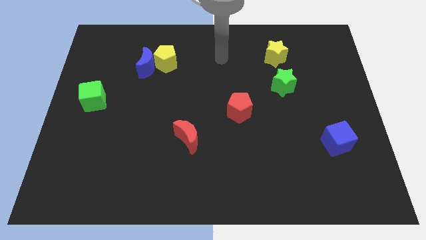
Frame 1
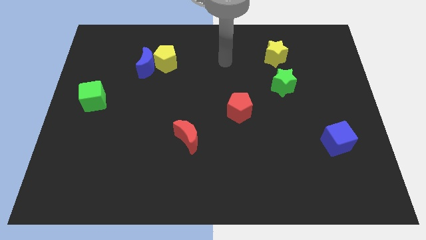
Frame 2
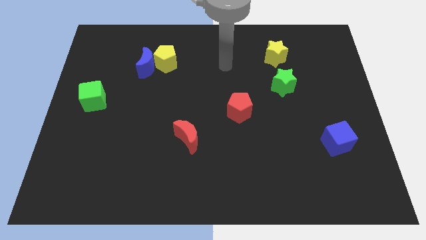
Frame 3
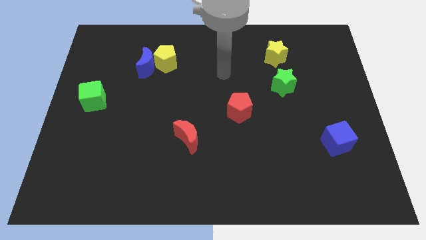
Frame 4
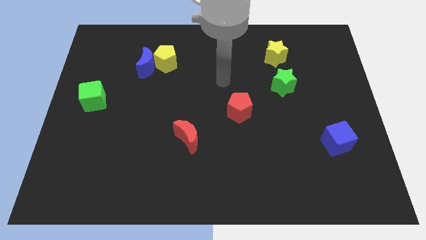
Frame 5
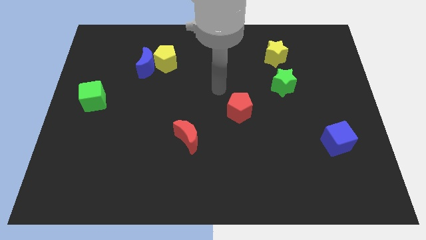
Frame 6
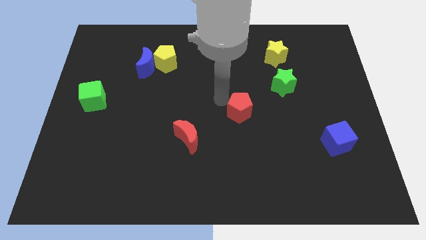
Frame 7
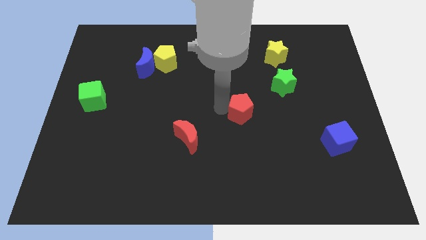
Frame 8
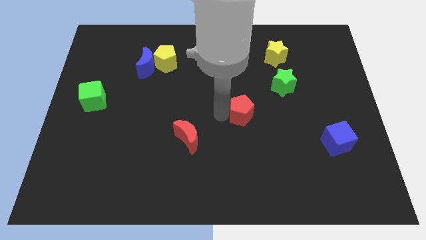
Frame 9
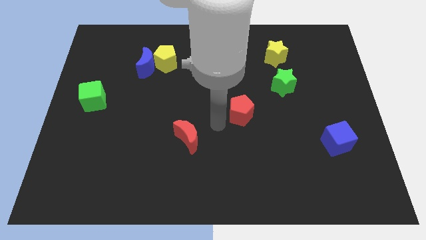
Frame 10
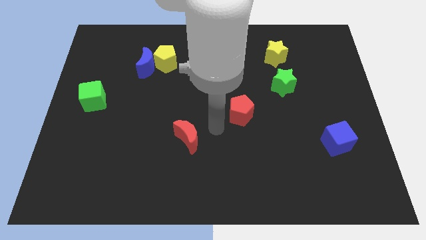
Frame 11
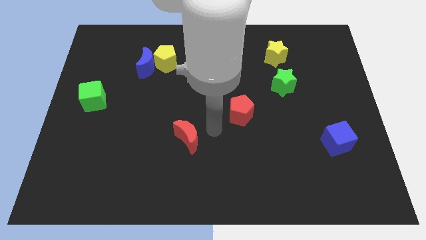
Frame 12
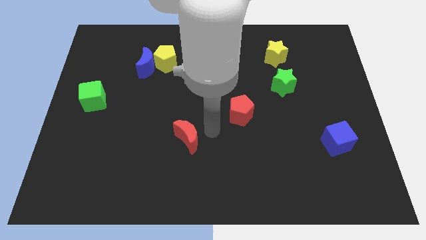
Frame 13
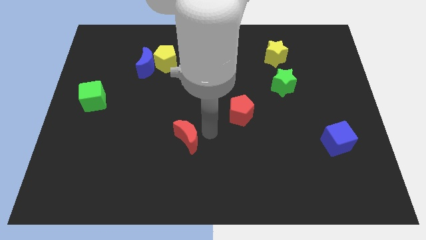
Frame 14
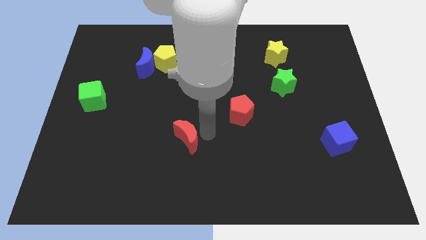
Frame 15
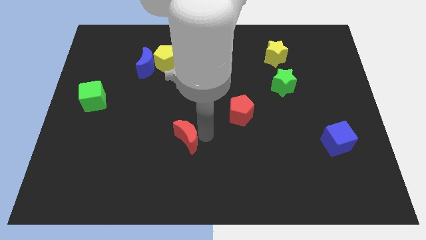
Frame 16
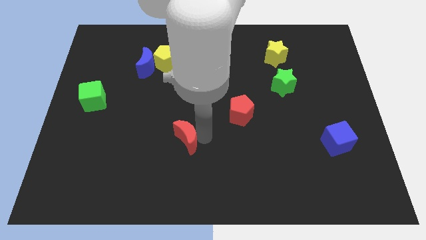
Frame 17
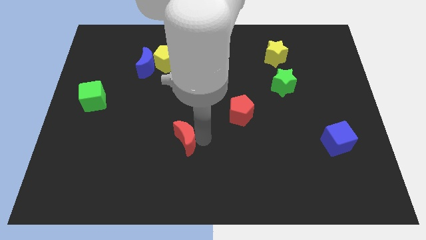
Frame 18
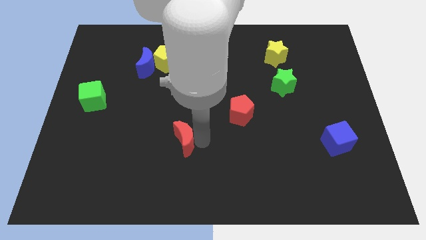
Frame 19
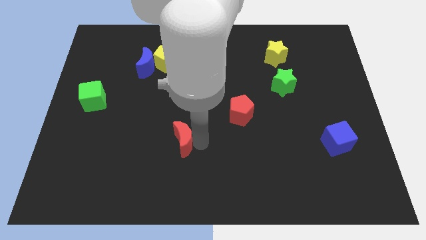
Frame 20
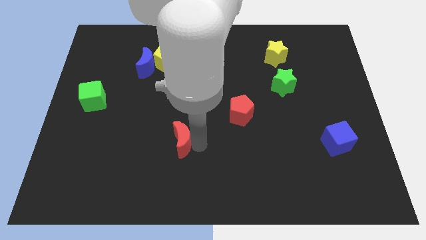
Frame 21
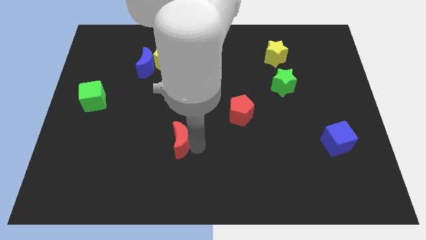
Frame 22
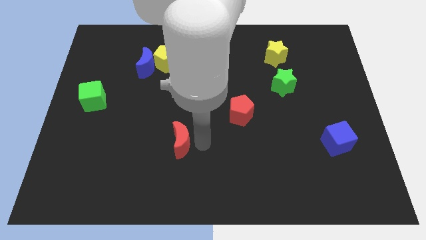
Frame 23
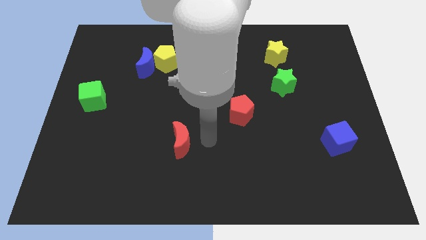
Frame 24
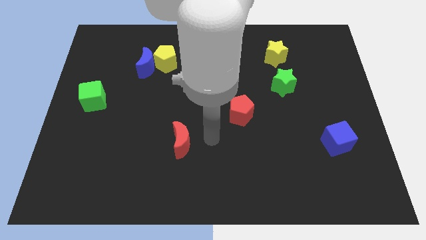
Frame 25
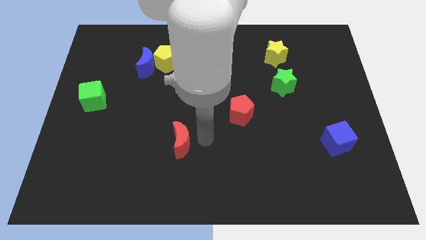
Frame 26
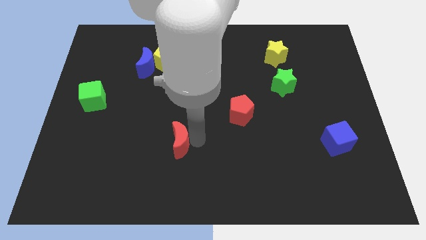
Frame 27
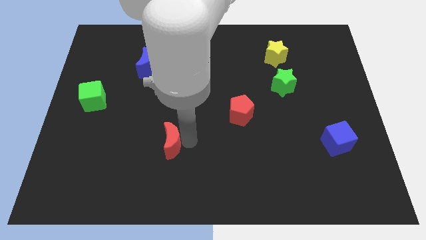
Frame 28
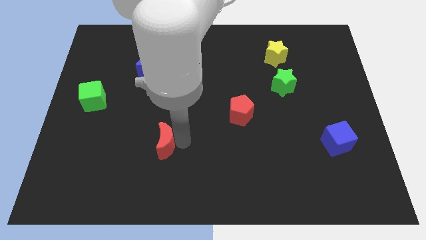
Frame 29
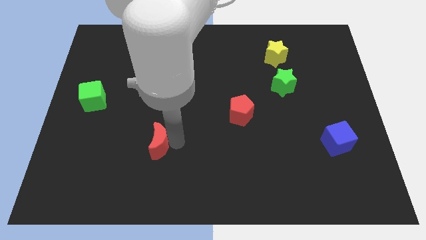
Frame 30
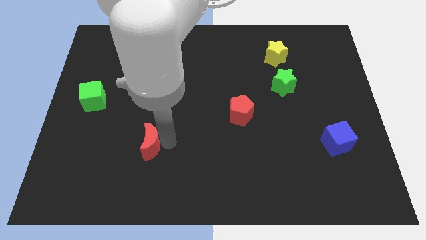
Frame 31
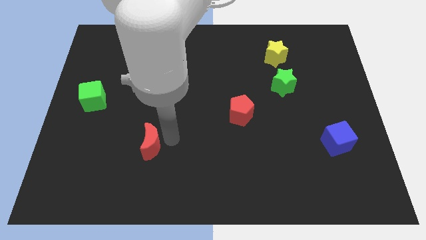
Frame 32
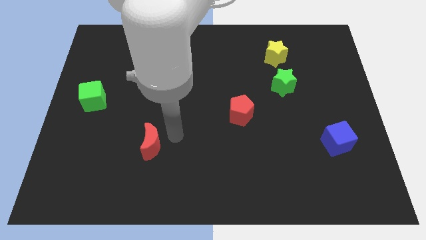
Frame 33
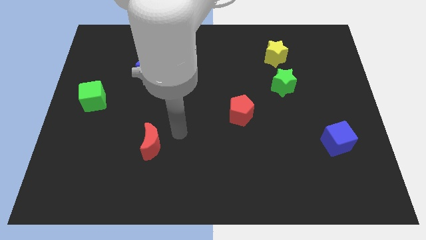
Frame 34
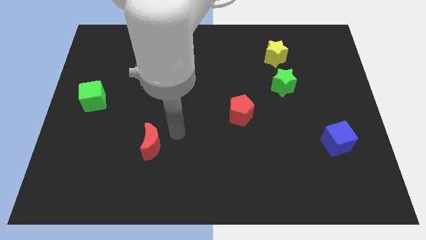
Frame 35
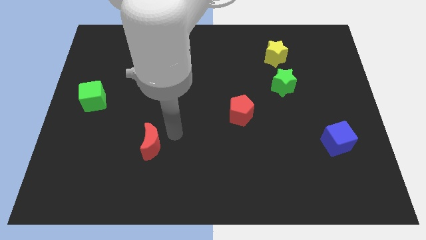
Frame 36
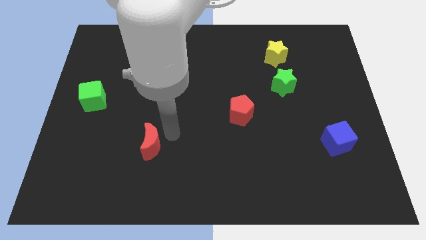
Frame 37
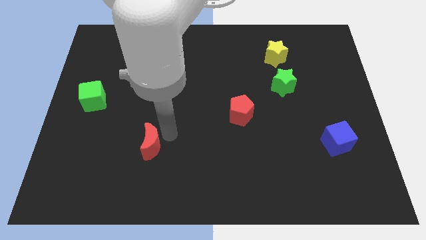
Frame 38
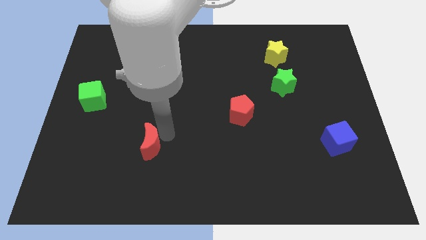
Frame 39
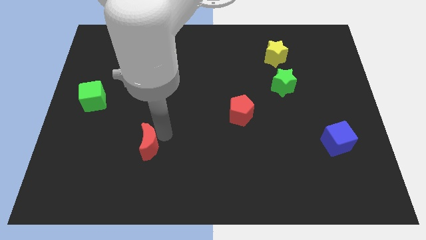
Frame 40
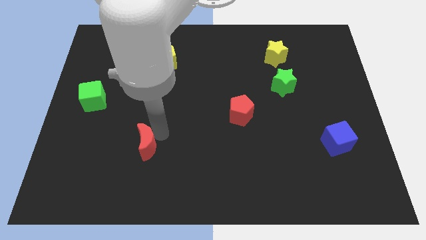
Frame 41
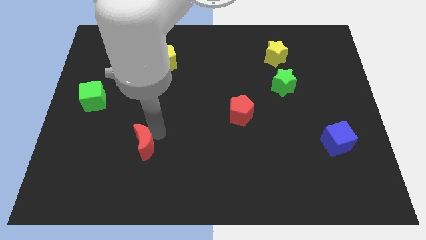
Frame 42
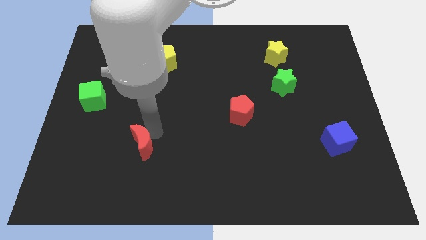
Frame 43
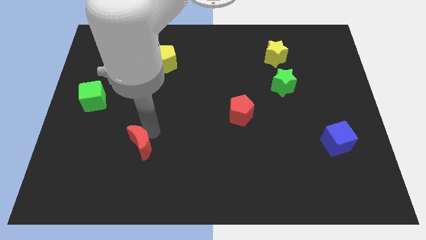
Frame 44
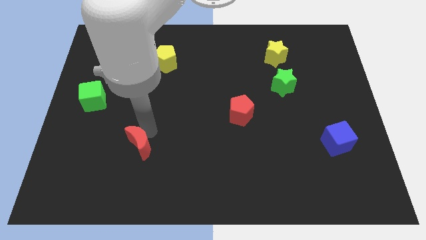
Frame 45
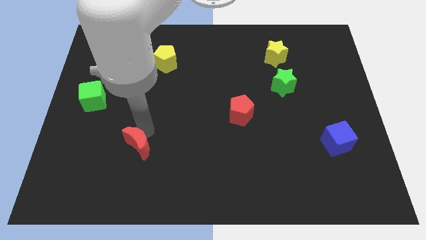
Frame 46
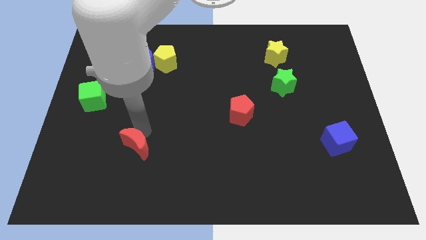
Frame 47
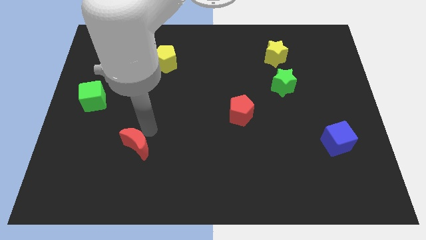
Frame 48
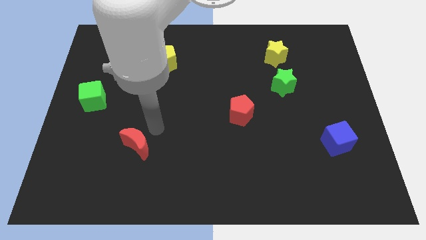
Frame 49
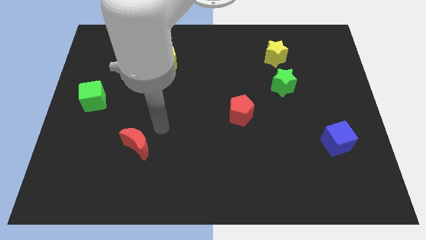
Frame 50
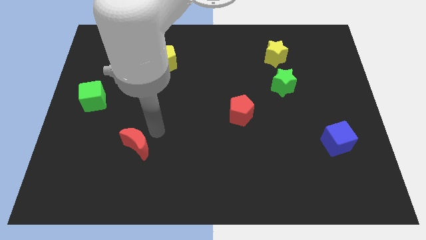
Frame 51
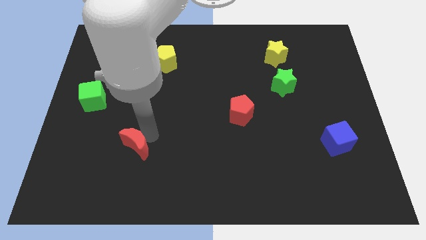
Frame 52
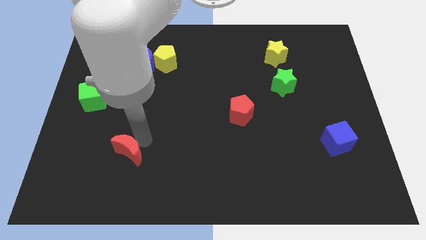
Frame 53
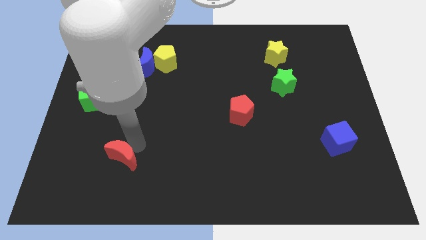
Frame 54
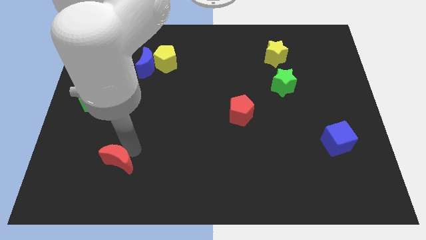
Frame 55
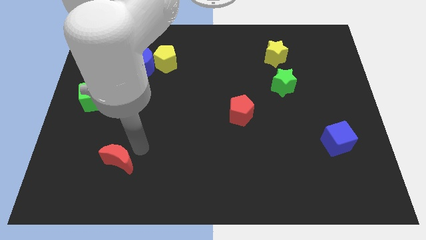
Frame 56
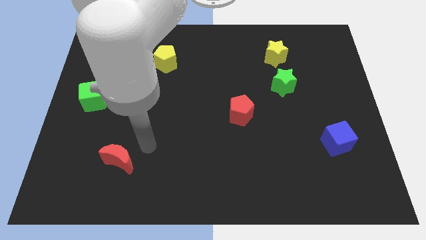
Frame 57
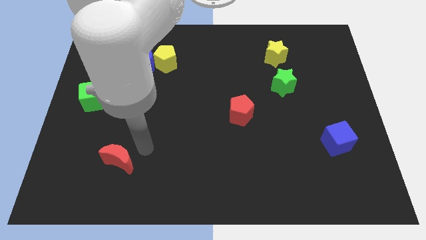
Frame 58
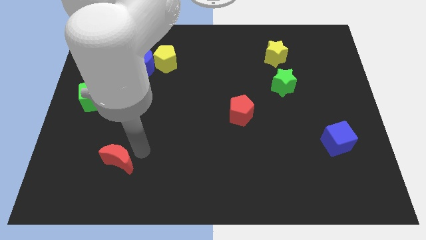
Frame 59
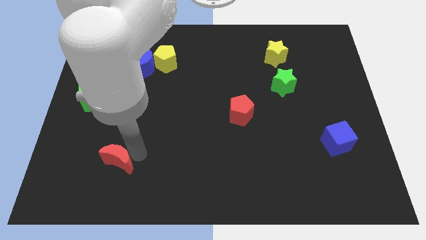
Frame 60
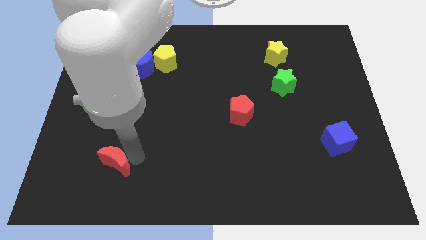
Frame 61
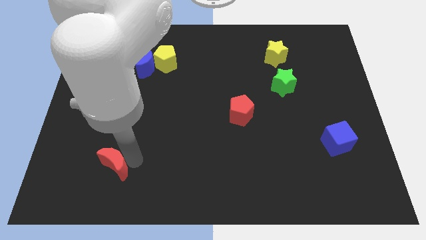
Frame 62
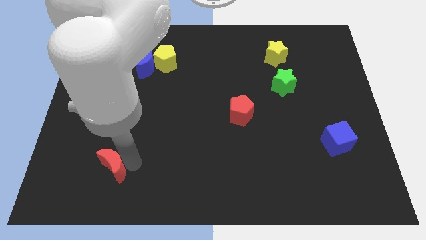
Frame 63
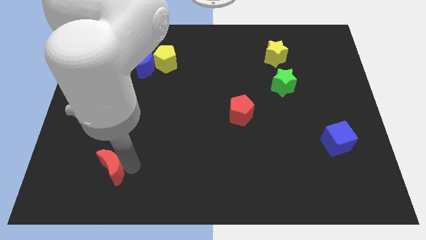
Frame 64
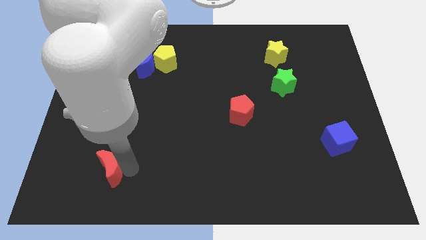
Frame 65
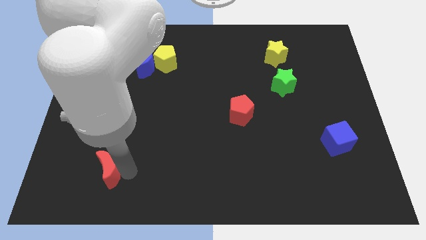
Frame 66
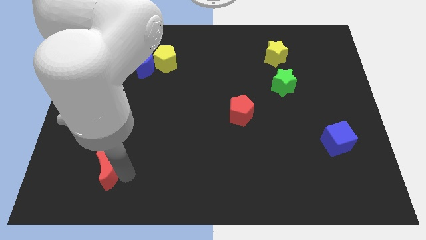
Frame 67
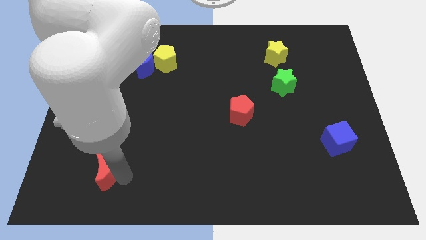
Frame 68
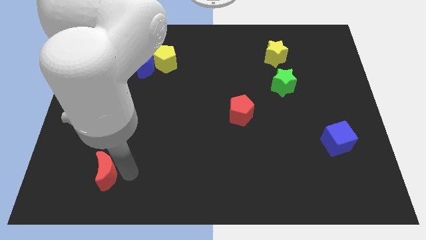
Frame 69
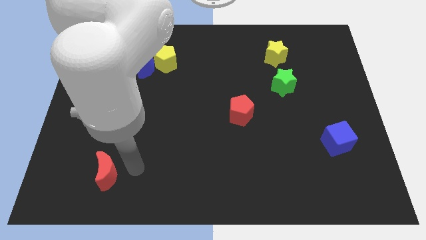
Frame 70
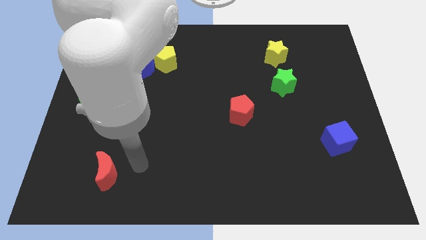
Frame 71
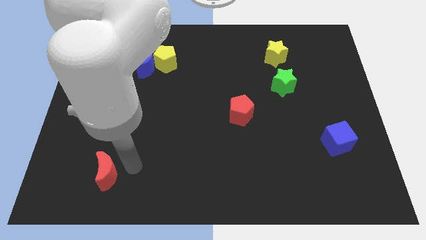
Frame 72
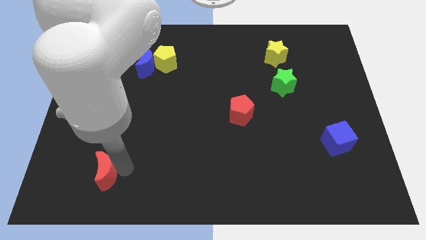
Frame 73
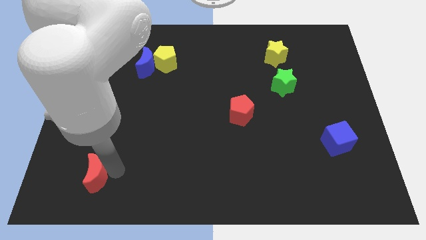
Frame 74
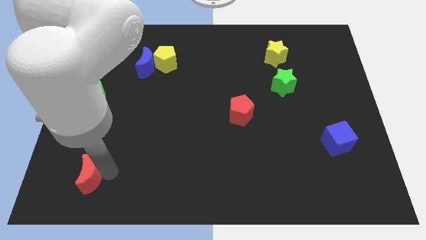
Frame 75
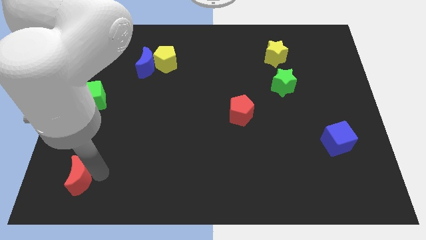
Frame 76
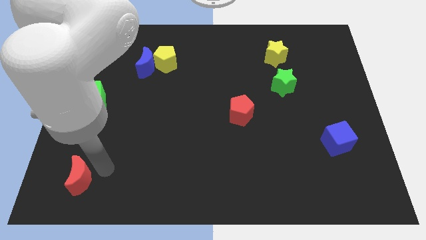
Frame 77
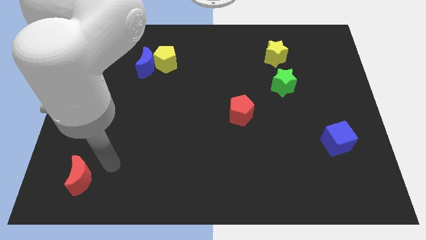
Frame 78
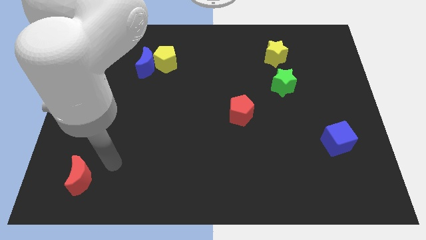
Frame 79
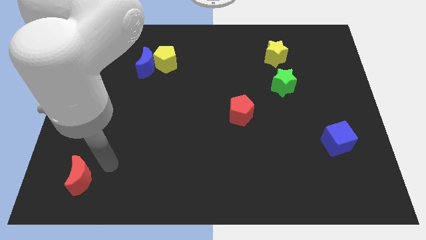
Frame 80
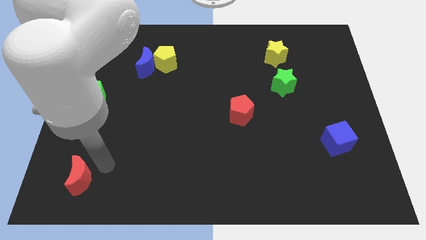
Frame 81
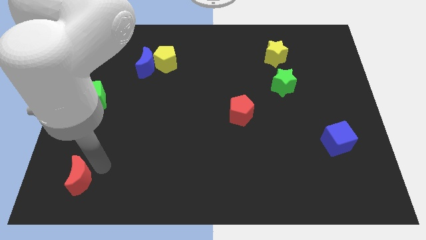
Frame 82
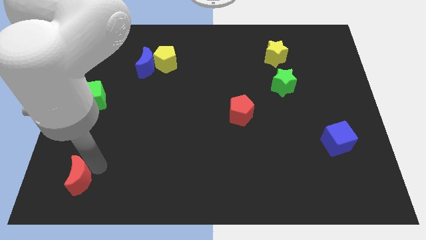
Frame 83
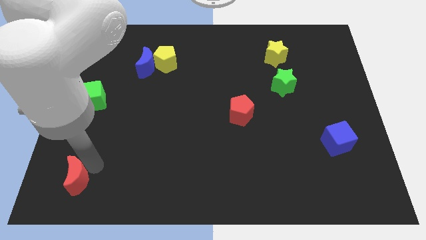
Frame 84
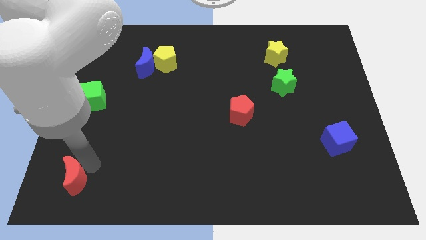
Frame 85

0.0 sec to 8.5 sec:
put the red moon to the bottom left of the board
